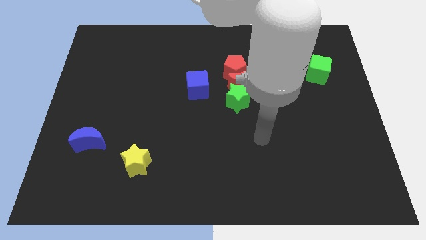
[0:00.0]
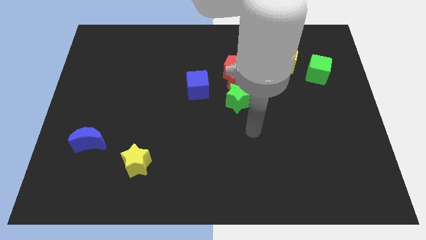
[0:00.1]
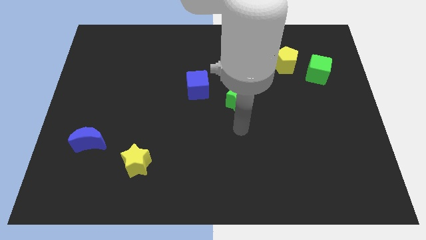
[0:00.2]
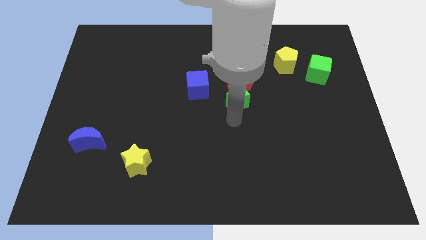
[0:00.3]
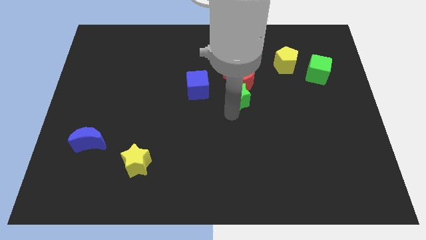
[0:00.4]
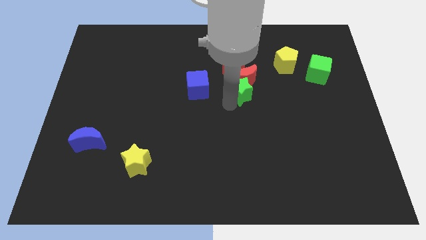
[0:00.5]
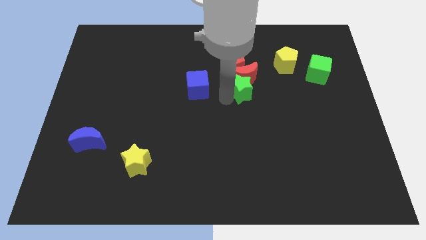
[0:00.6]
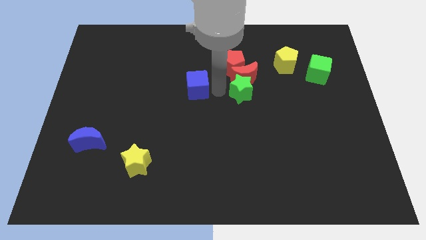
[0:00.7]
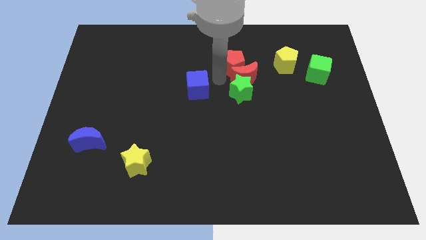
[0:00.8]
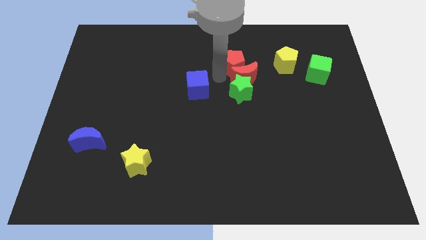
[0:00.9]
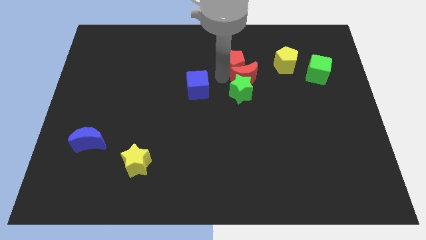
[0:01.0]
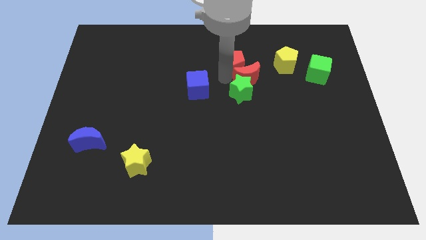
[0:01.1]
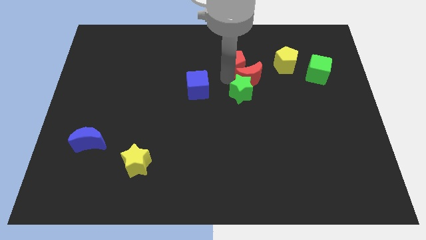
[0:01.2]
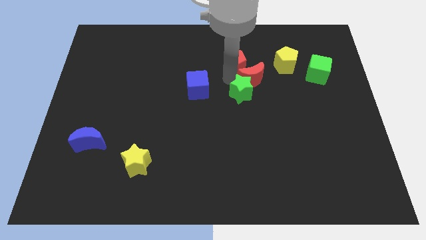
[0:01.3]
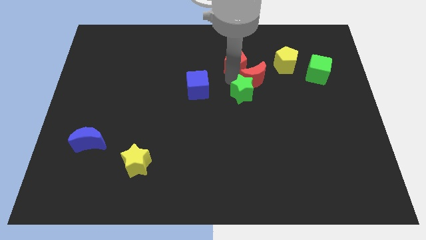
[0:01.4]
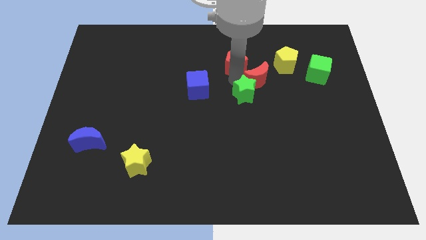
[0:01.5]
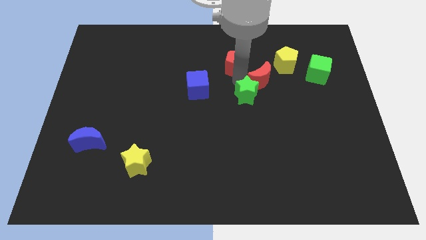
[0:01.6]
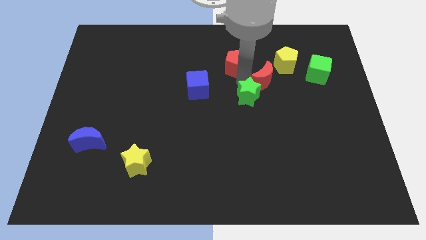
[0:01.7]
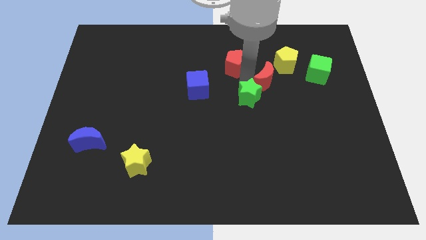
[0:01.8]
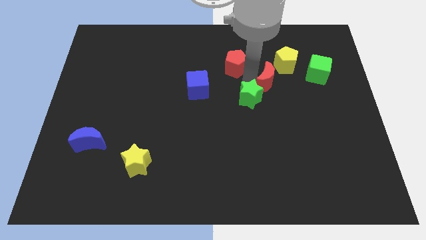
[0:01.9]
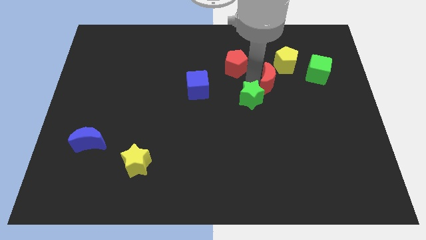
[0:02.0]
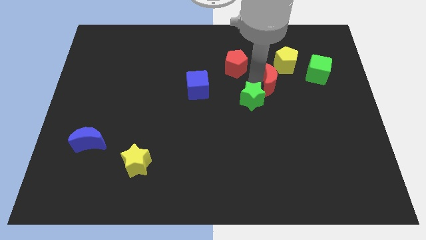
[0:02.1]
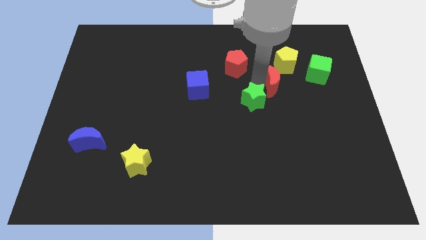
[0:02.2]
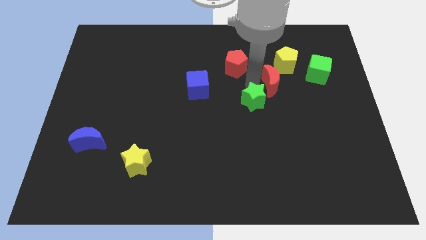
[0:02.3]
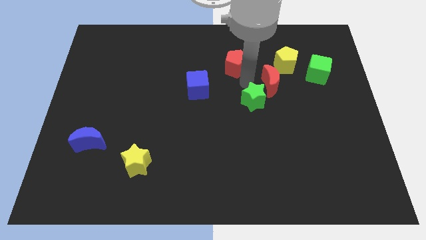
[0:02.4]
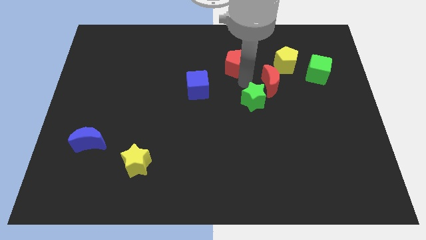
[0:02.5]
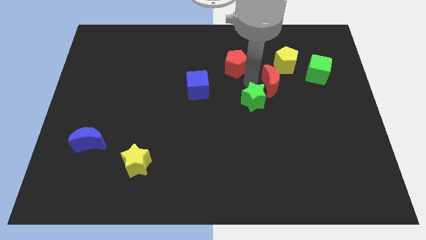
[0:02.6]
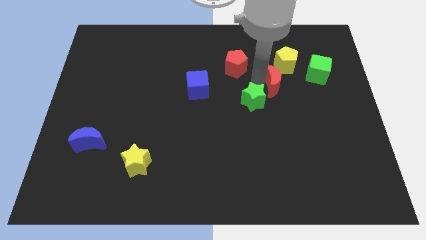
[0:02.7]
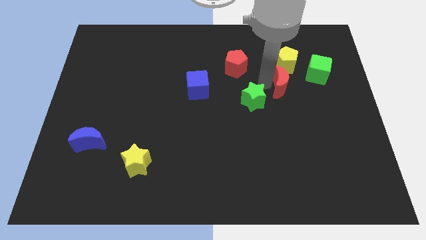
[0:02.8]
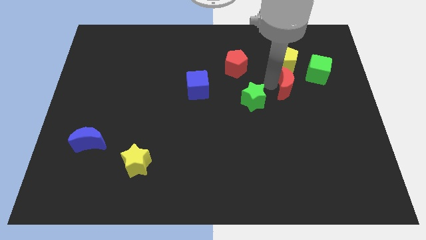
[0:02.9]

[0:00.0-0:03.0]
pull the red moon apart from the red pentagon and green star

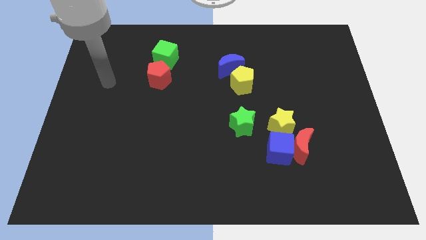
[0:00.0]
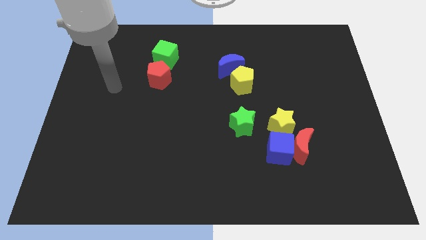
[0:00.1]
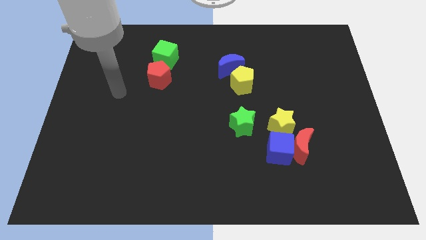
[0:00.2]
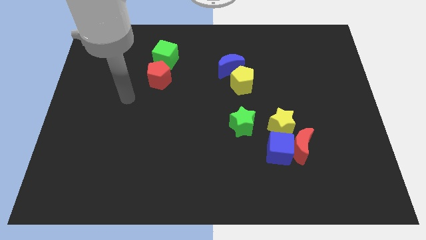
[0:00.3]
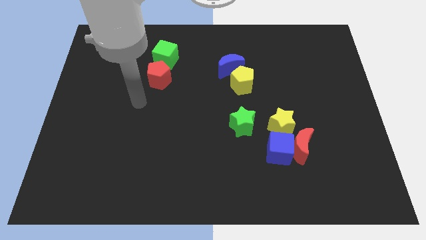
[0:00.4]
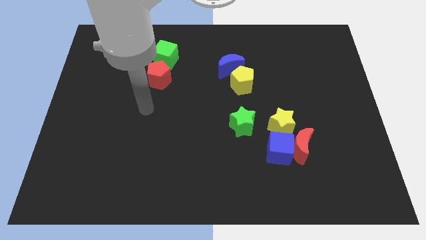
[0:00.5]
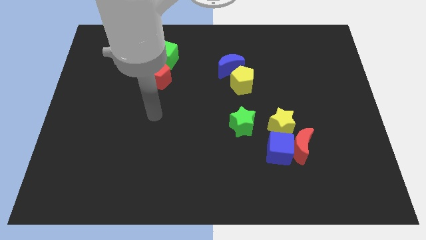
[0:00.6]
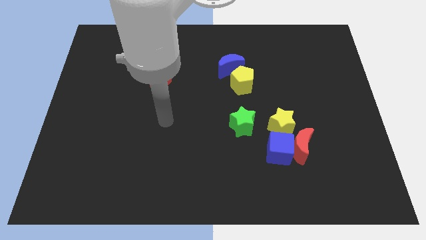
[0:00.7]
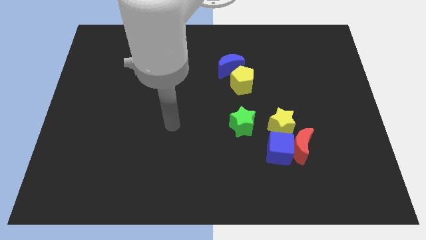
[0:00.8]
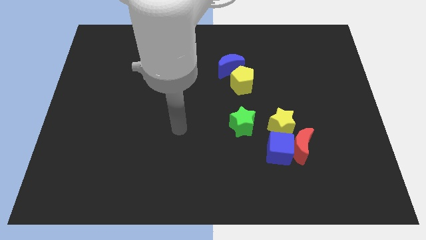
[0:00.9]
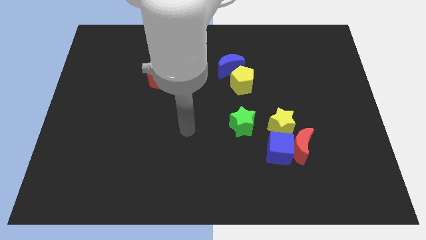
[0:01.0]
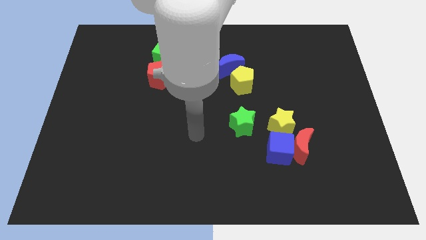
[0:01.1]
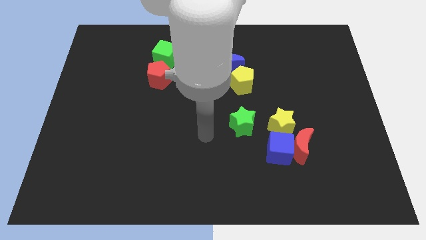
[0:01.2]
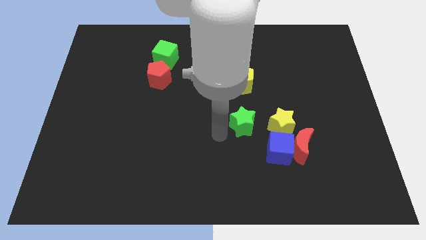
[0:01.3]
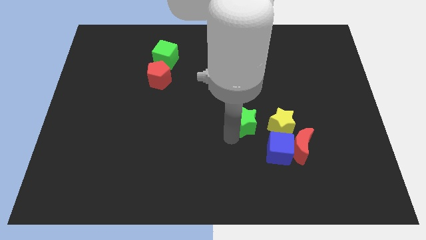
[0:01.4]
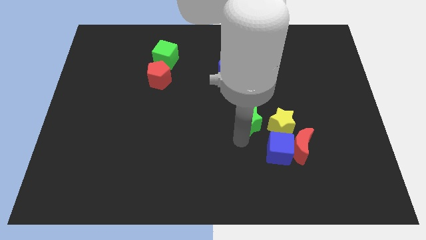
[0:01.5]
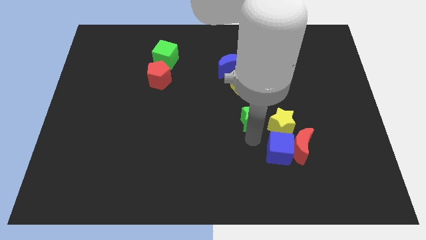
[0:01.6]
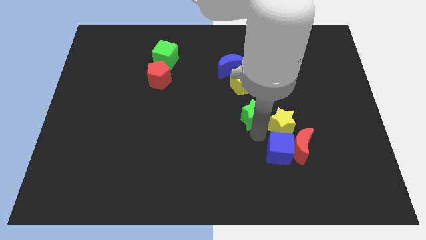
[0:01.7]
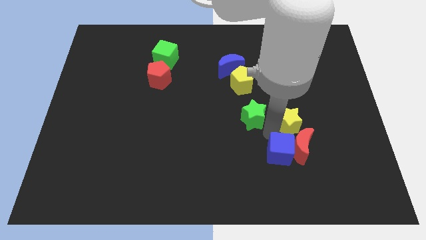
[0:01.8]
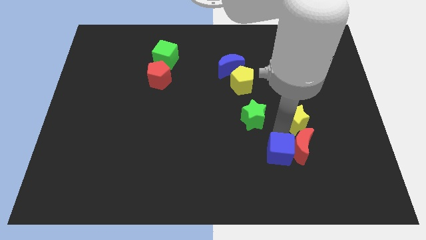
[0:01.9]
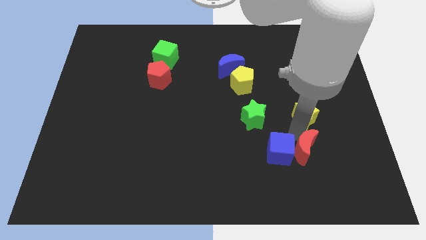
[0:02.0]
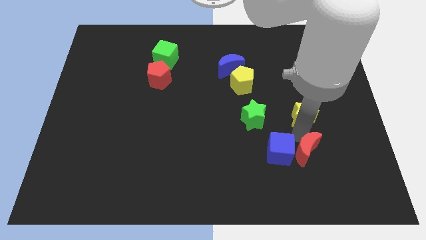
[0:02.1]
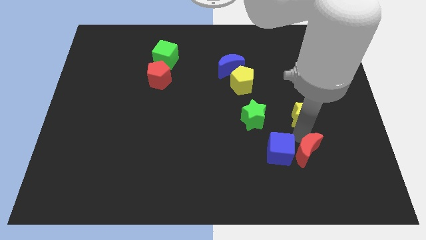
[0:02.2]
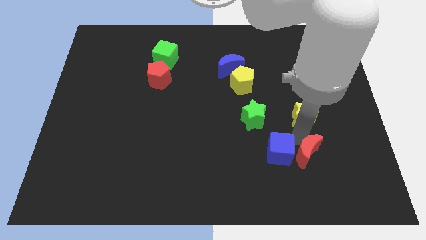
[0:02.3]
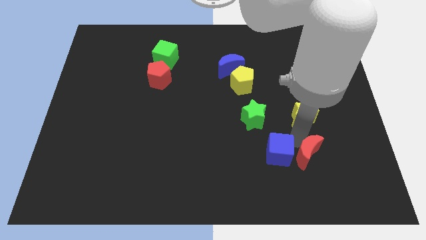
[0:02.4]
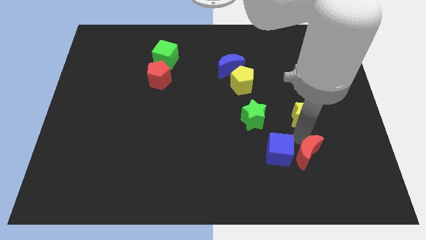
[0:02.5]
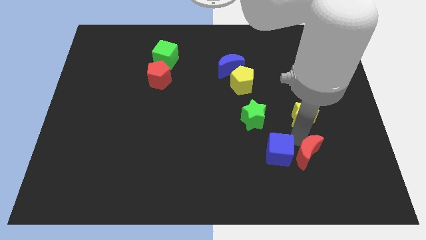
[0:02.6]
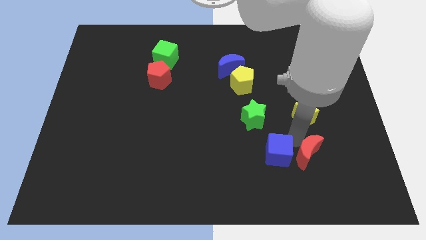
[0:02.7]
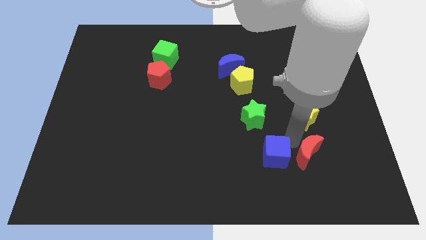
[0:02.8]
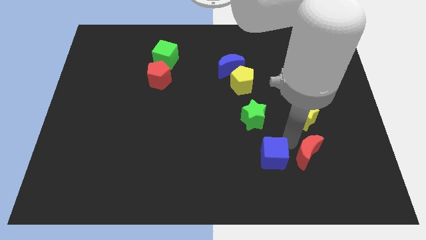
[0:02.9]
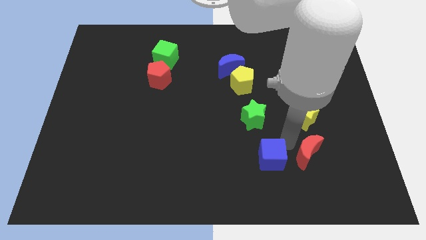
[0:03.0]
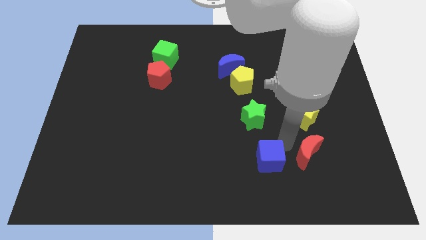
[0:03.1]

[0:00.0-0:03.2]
pull the blue cube apart from the red moon and yellow star

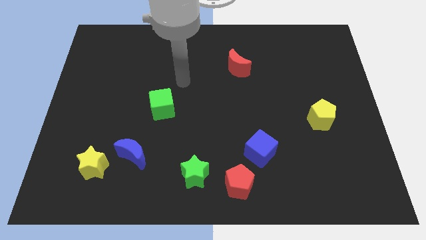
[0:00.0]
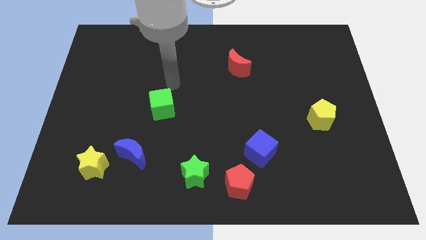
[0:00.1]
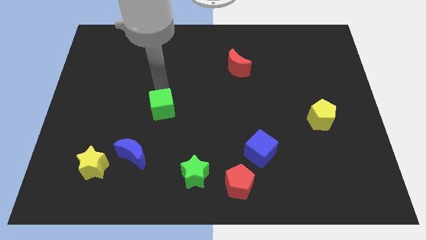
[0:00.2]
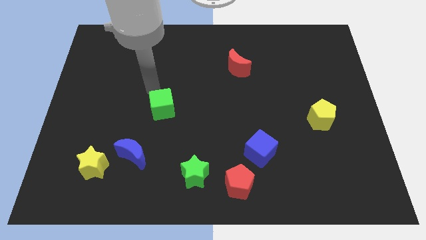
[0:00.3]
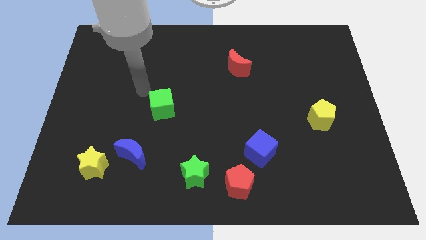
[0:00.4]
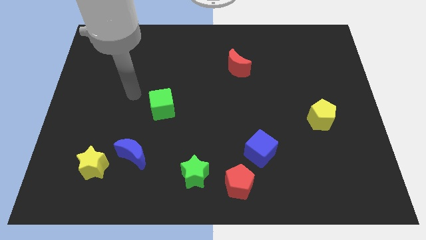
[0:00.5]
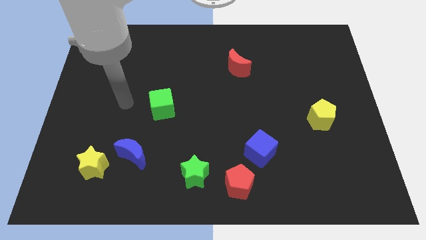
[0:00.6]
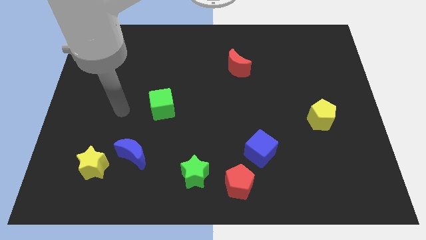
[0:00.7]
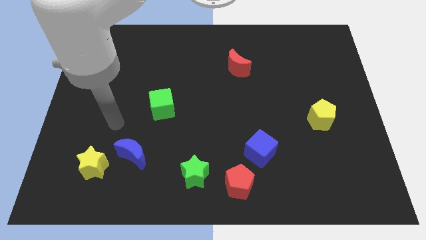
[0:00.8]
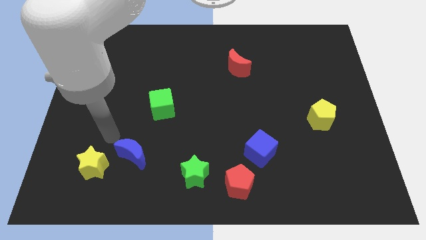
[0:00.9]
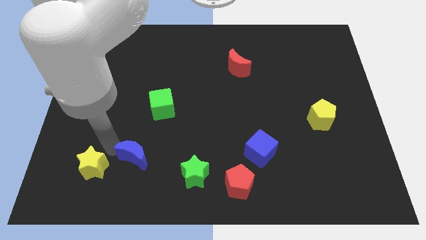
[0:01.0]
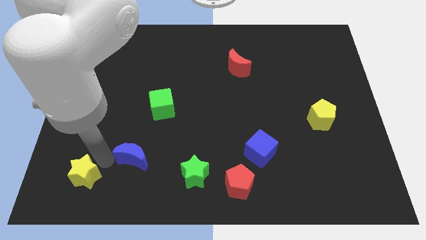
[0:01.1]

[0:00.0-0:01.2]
separate the blue moon from the yellow star

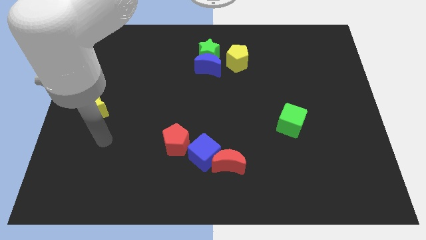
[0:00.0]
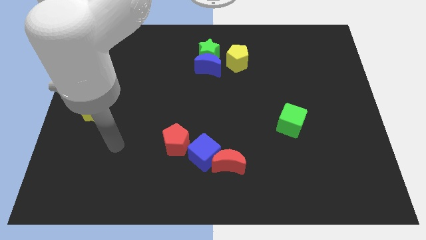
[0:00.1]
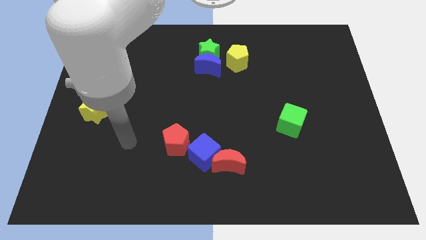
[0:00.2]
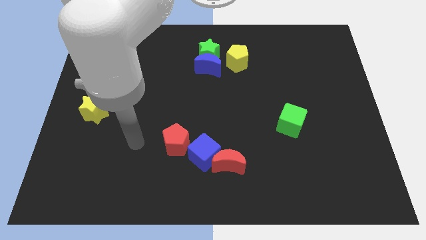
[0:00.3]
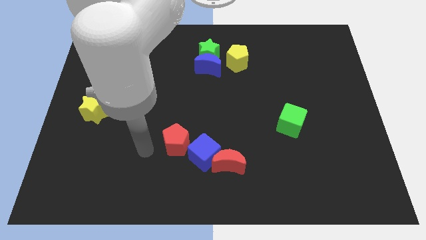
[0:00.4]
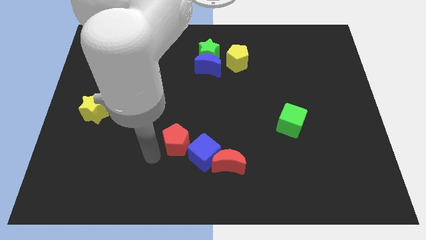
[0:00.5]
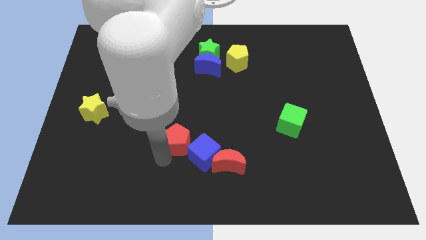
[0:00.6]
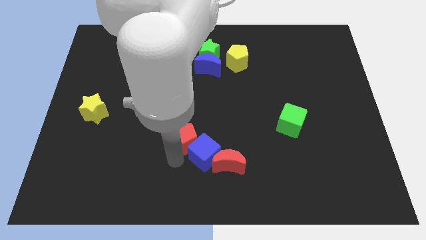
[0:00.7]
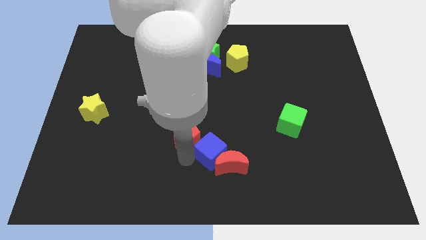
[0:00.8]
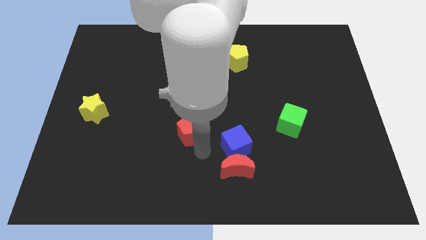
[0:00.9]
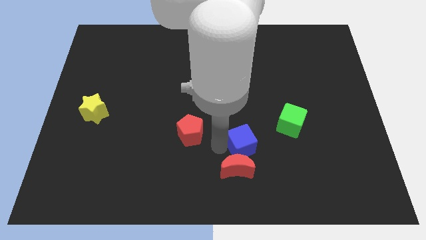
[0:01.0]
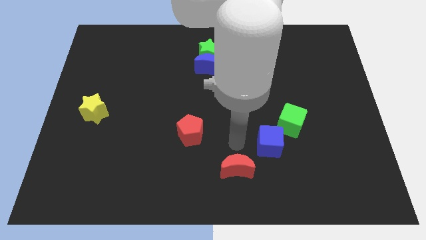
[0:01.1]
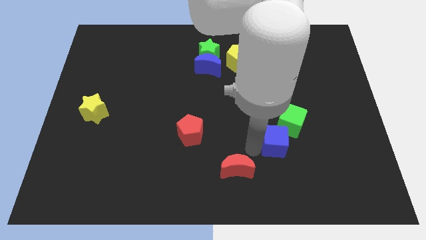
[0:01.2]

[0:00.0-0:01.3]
separate the red moon from the blue cube

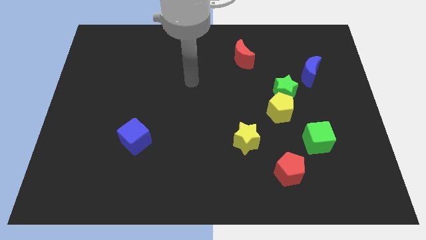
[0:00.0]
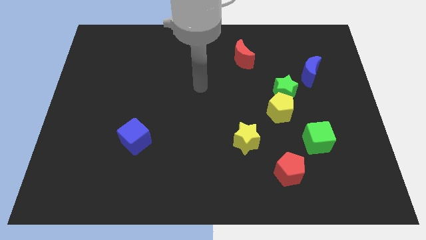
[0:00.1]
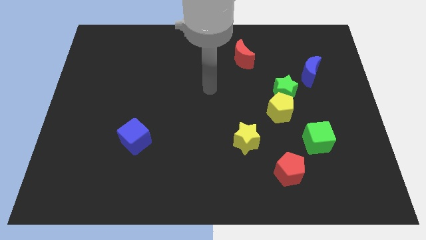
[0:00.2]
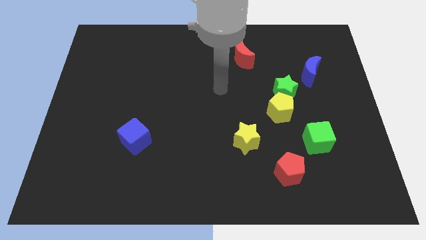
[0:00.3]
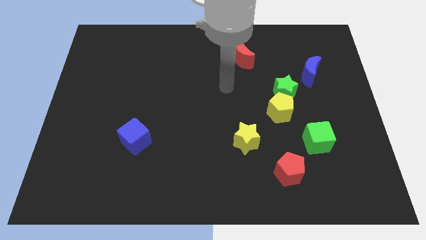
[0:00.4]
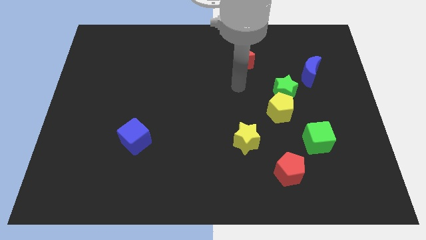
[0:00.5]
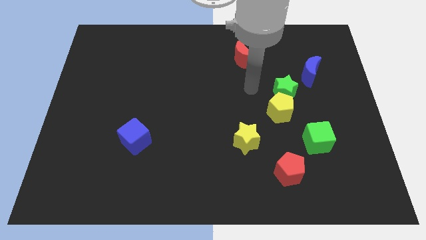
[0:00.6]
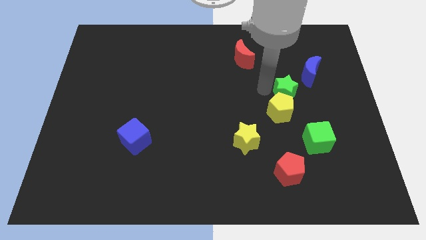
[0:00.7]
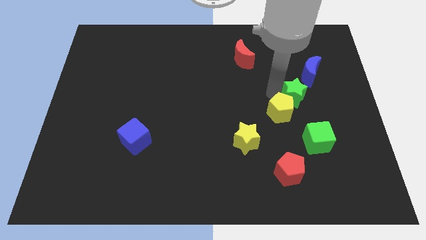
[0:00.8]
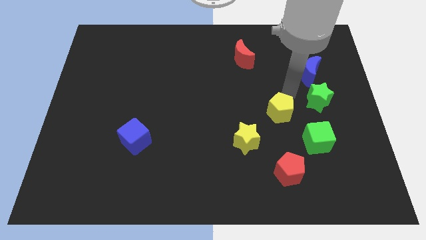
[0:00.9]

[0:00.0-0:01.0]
pull the yellow pentagon apart from the green star
